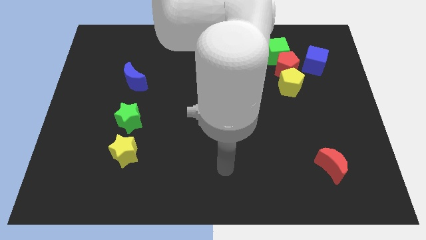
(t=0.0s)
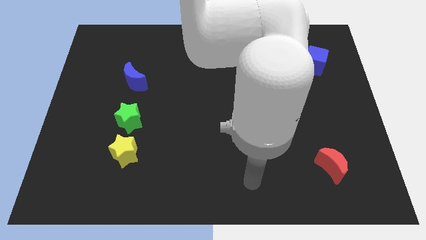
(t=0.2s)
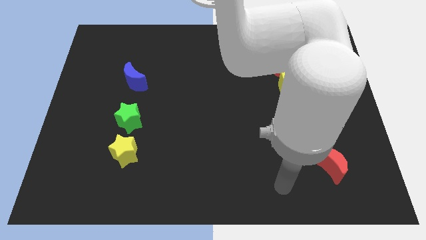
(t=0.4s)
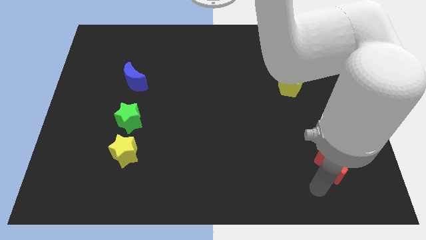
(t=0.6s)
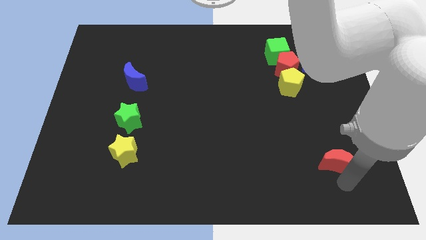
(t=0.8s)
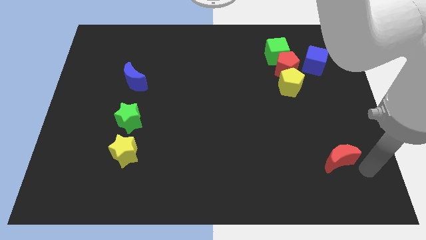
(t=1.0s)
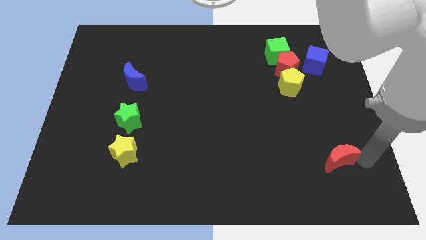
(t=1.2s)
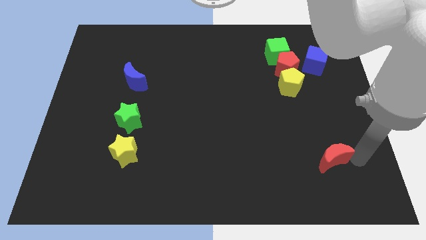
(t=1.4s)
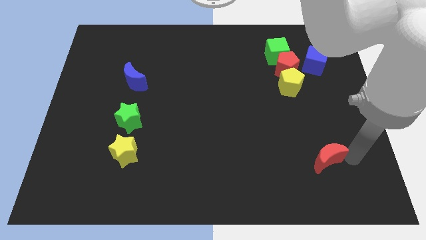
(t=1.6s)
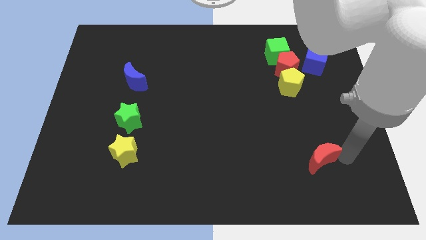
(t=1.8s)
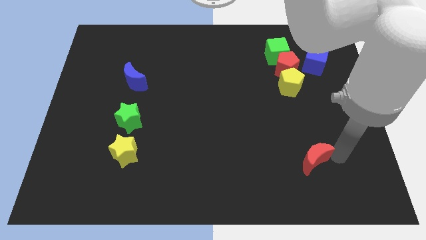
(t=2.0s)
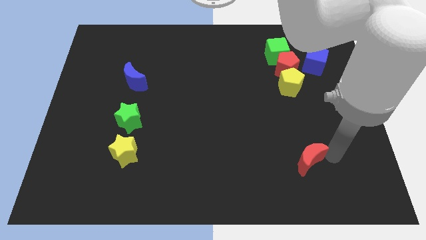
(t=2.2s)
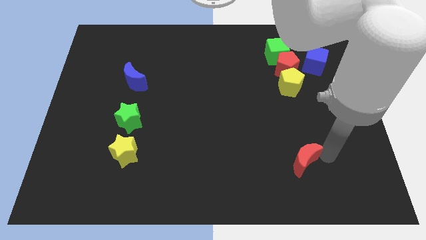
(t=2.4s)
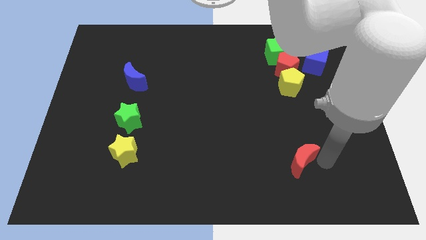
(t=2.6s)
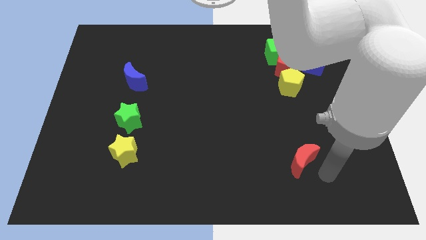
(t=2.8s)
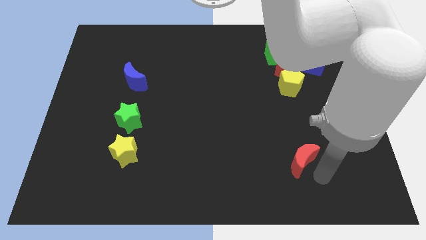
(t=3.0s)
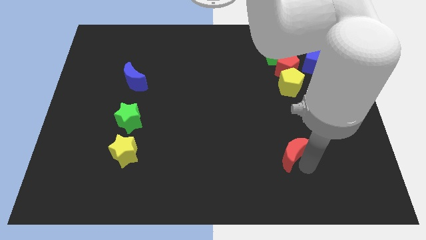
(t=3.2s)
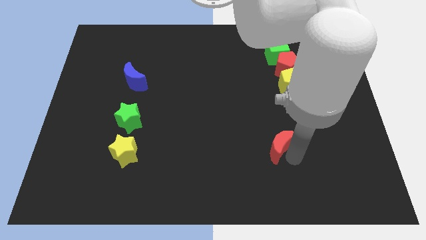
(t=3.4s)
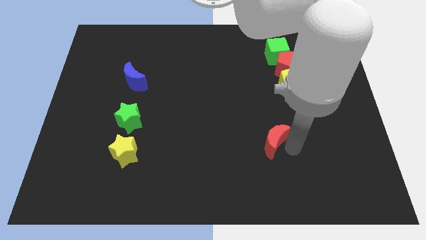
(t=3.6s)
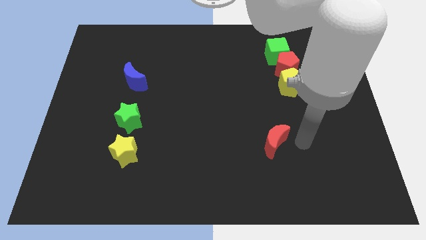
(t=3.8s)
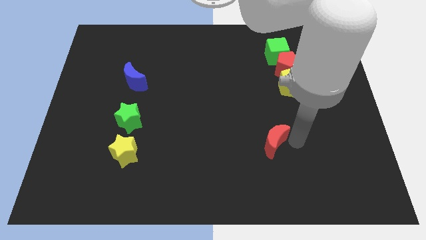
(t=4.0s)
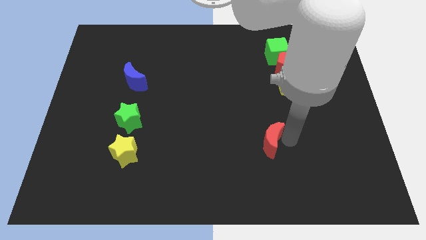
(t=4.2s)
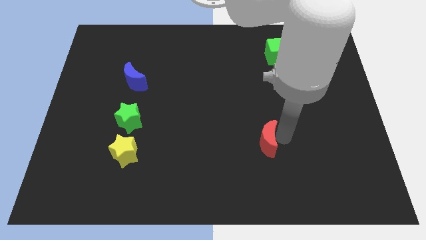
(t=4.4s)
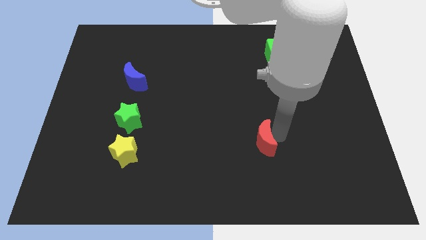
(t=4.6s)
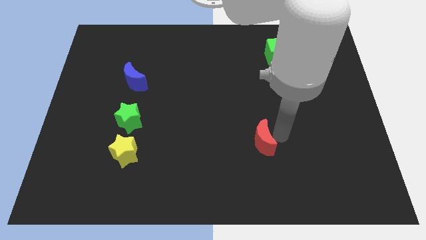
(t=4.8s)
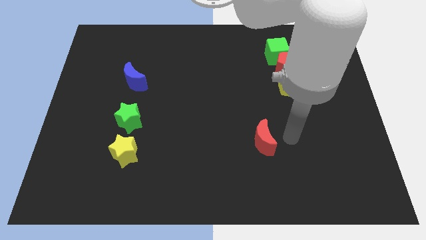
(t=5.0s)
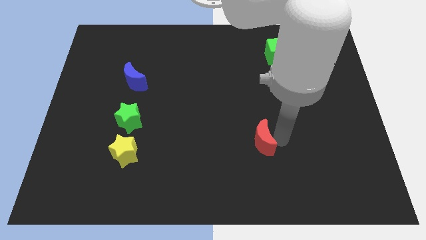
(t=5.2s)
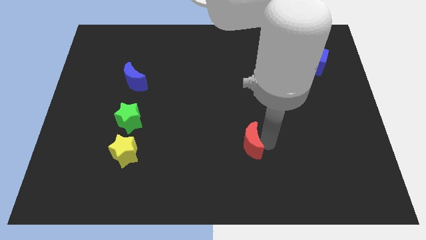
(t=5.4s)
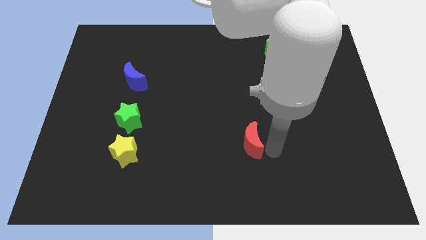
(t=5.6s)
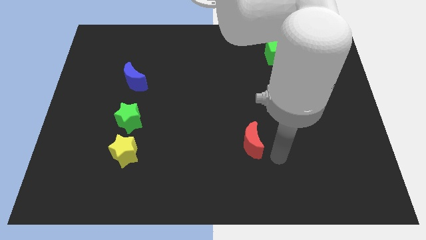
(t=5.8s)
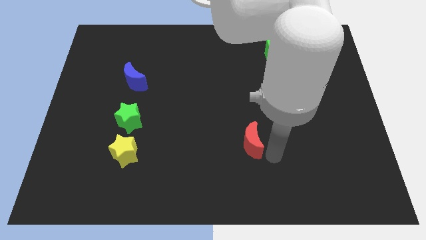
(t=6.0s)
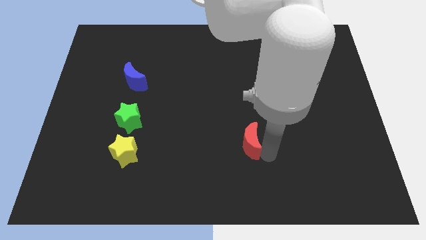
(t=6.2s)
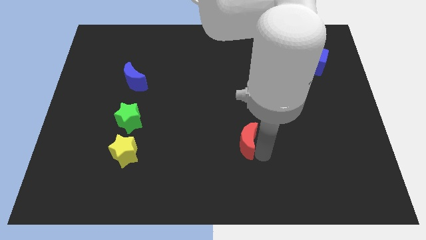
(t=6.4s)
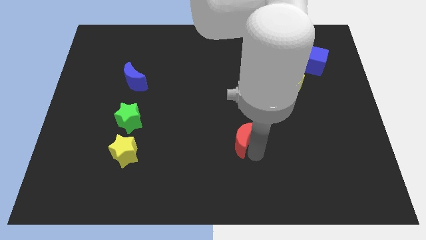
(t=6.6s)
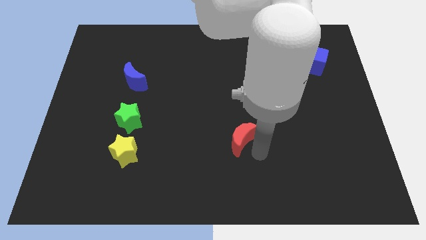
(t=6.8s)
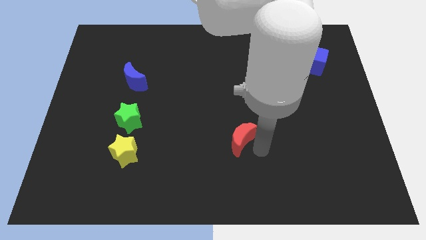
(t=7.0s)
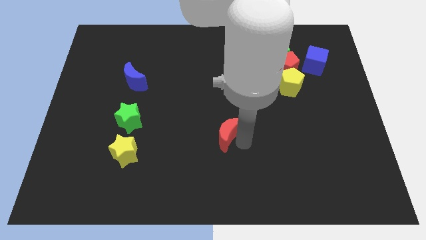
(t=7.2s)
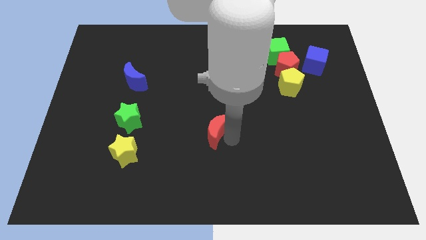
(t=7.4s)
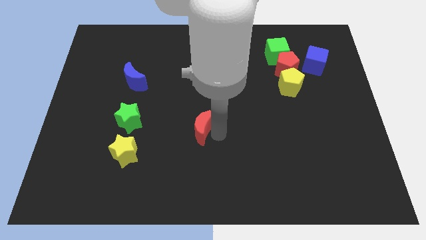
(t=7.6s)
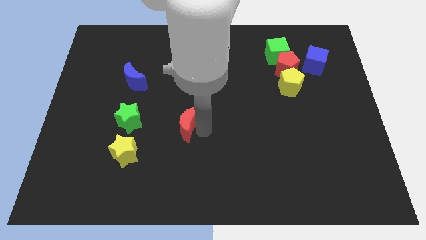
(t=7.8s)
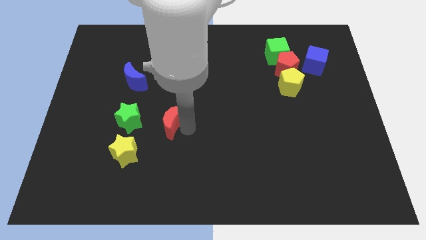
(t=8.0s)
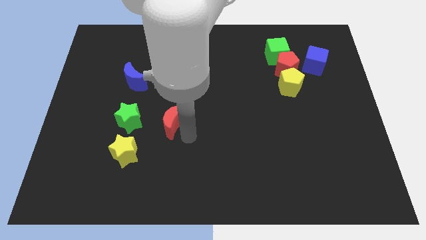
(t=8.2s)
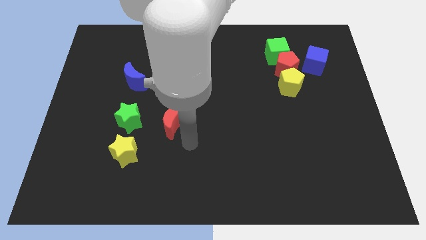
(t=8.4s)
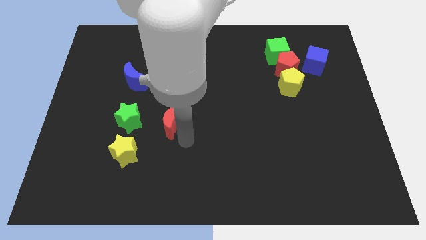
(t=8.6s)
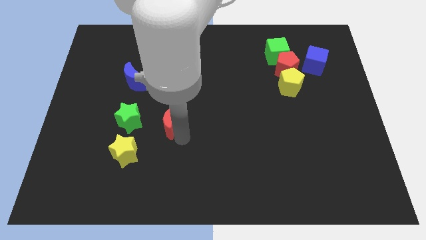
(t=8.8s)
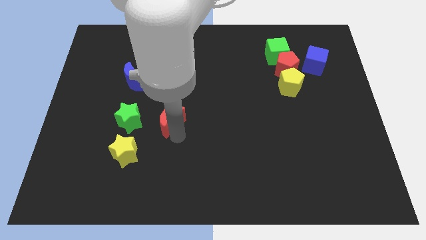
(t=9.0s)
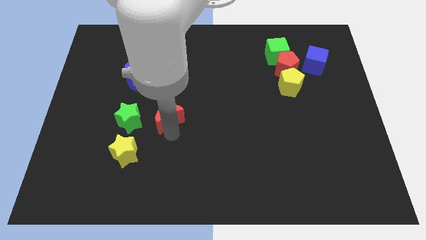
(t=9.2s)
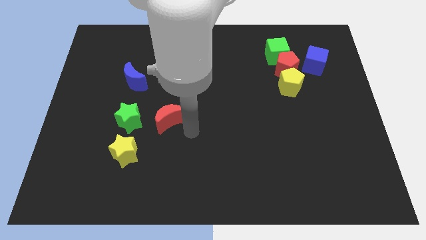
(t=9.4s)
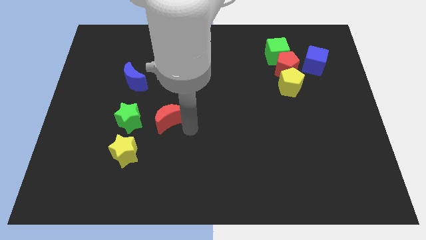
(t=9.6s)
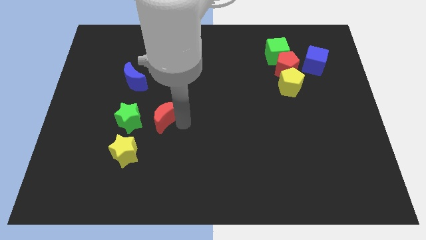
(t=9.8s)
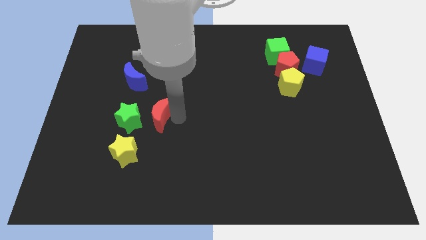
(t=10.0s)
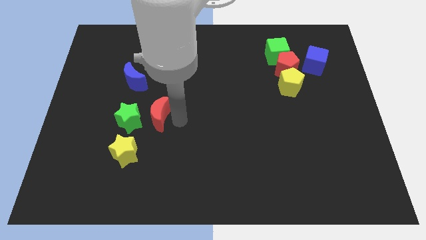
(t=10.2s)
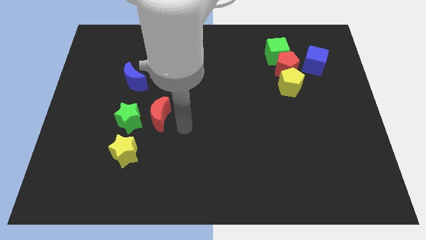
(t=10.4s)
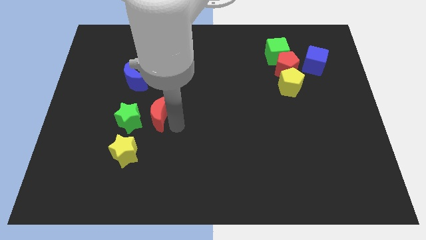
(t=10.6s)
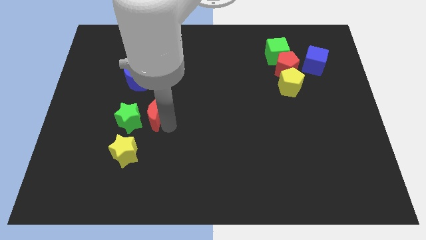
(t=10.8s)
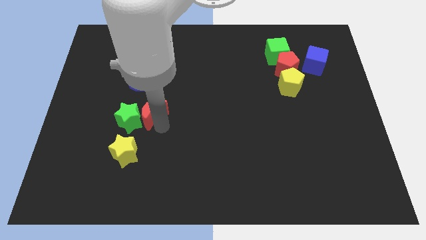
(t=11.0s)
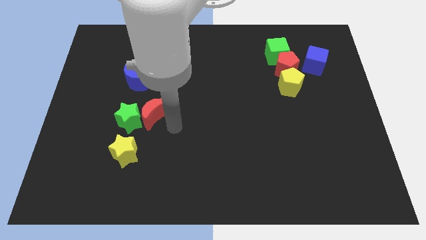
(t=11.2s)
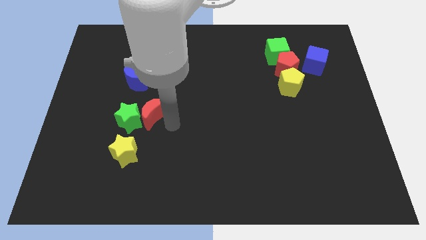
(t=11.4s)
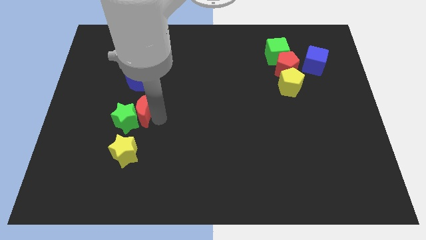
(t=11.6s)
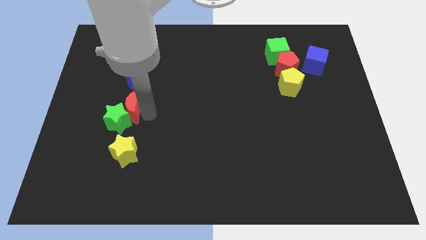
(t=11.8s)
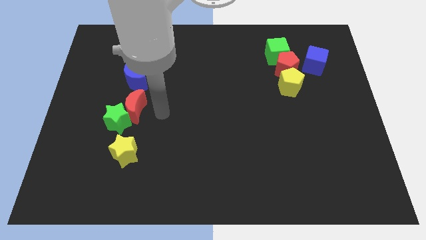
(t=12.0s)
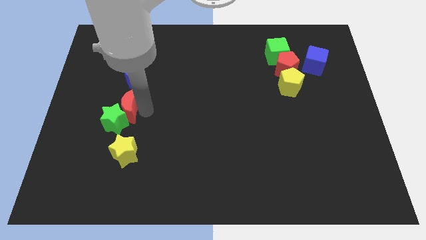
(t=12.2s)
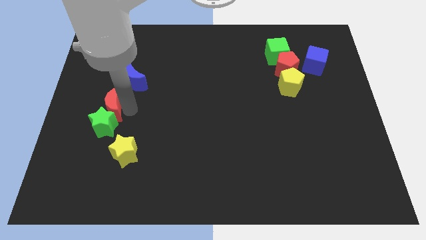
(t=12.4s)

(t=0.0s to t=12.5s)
push the red moon diagonally up and to the left of the green star

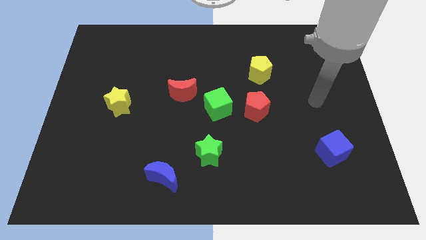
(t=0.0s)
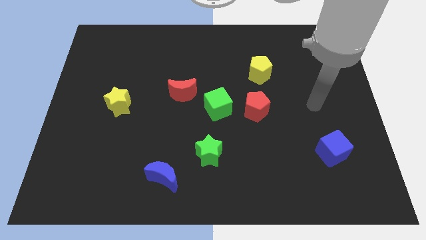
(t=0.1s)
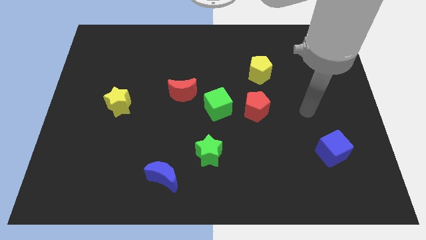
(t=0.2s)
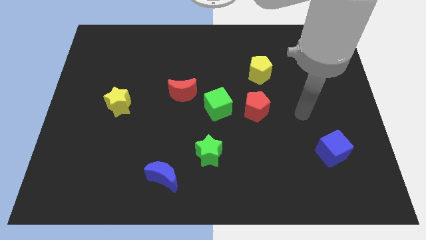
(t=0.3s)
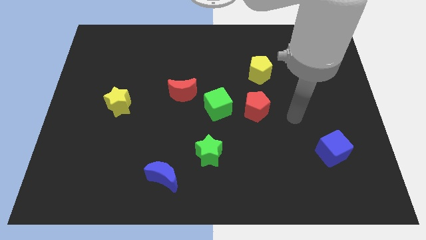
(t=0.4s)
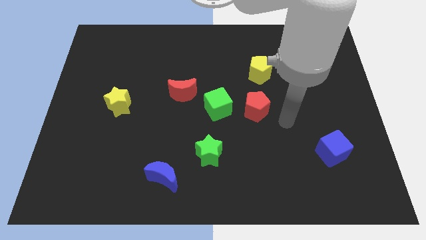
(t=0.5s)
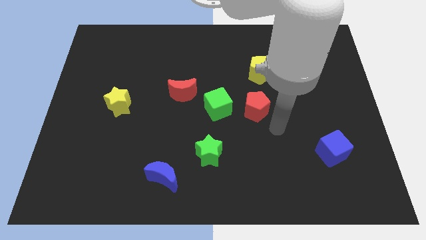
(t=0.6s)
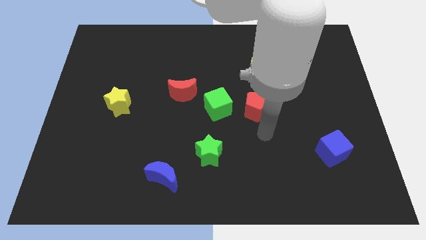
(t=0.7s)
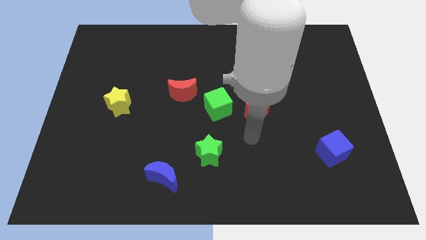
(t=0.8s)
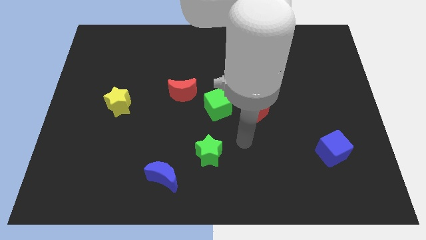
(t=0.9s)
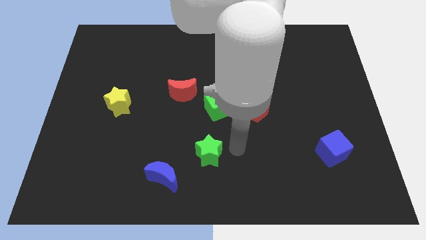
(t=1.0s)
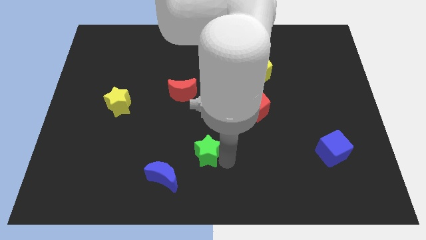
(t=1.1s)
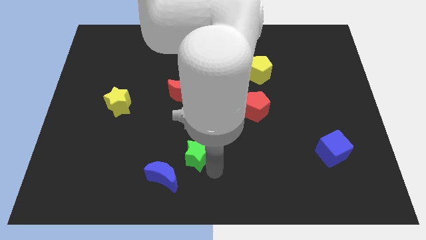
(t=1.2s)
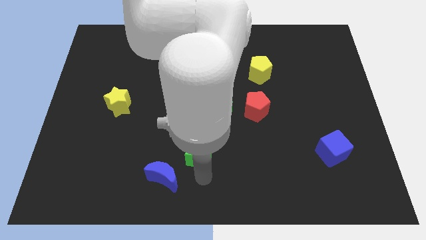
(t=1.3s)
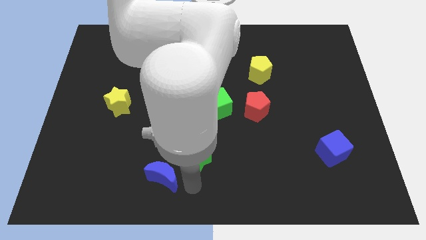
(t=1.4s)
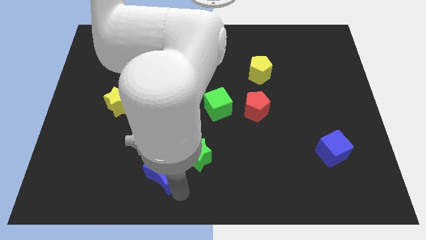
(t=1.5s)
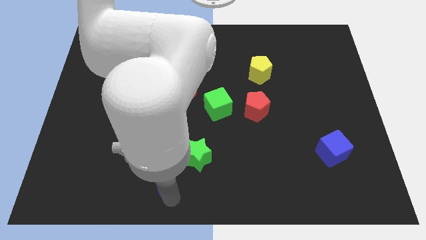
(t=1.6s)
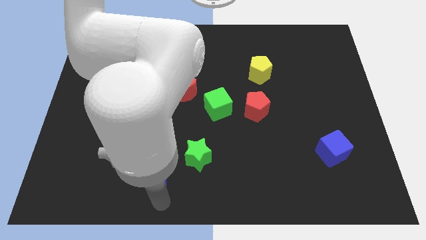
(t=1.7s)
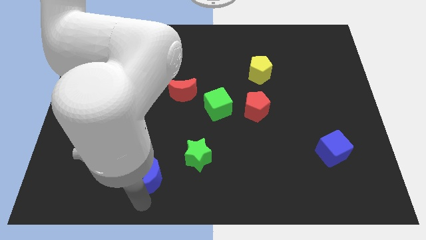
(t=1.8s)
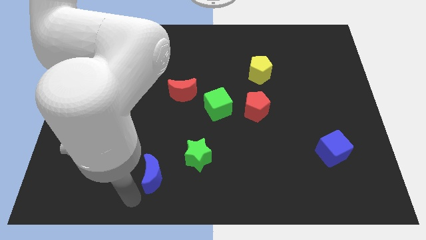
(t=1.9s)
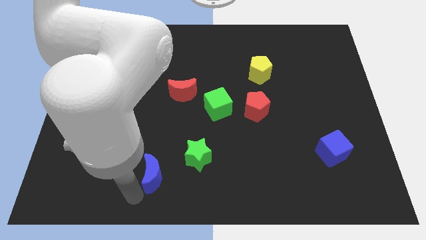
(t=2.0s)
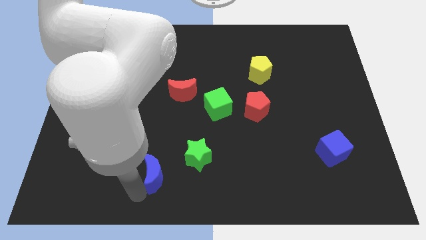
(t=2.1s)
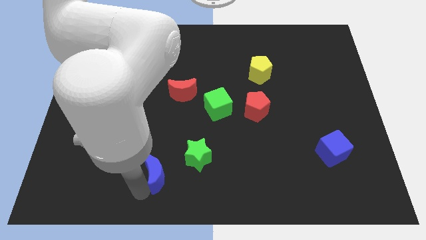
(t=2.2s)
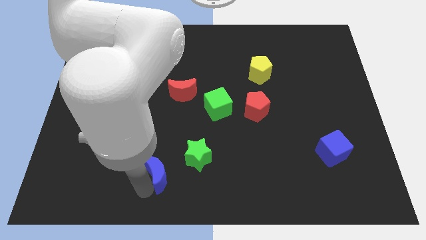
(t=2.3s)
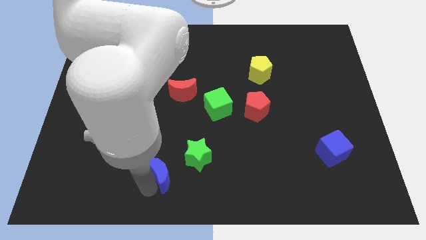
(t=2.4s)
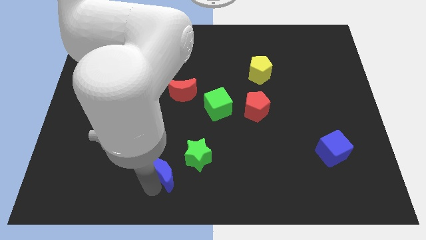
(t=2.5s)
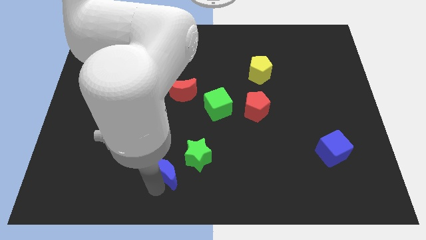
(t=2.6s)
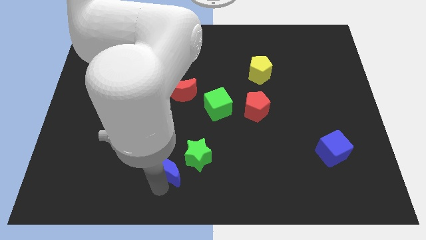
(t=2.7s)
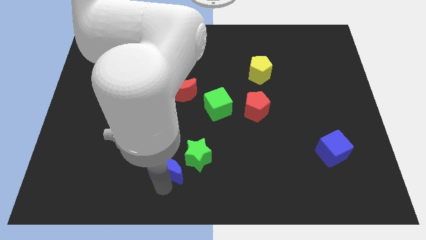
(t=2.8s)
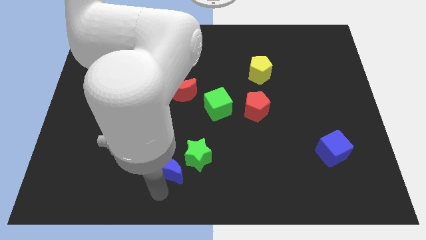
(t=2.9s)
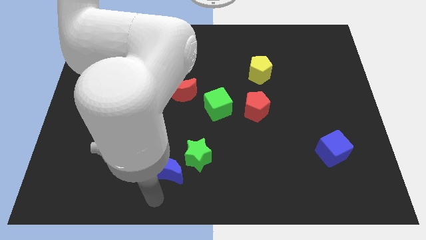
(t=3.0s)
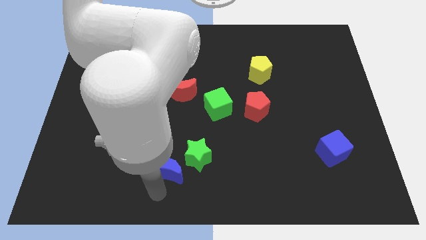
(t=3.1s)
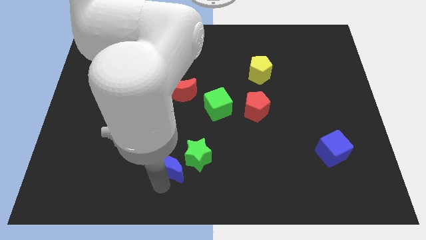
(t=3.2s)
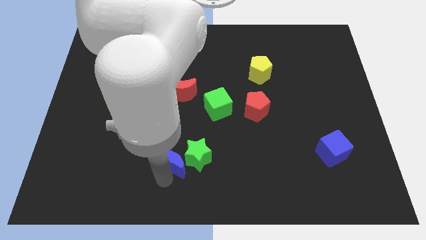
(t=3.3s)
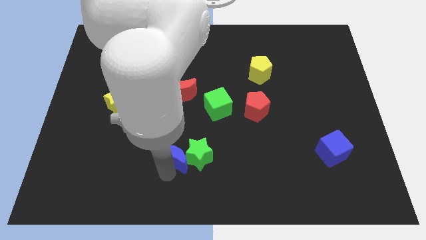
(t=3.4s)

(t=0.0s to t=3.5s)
push the blue moon to the top left side of the green star
